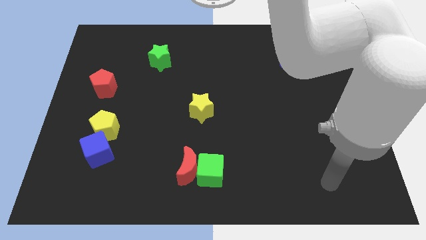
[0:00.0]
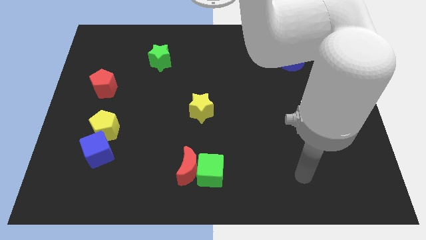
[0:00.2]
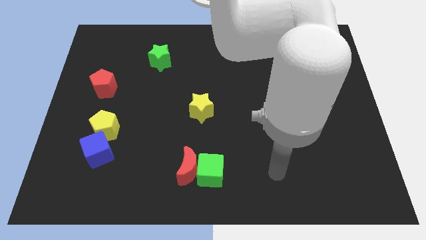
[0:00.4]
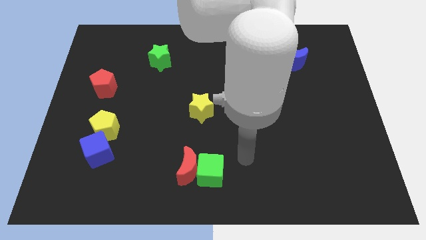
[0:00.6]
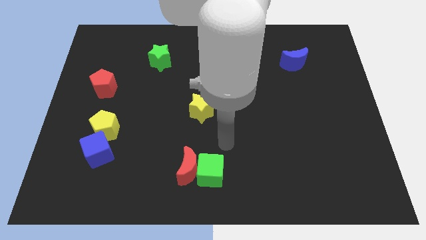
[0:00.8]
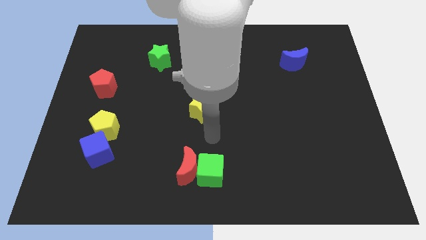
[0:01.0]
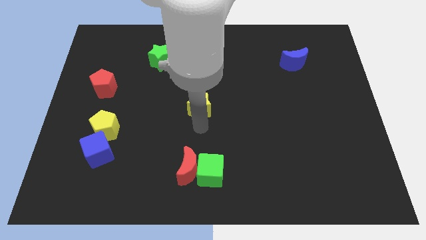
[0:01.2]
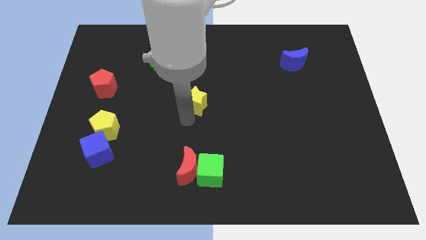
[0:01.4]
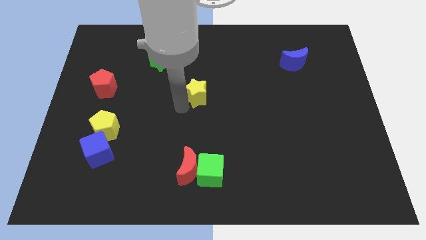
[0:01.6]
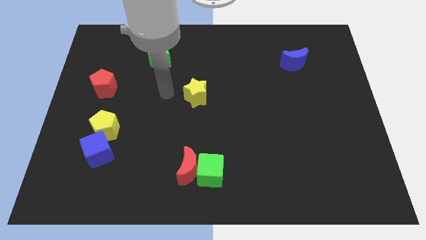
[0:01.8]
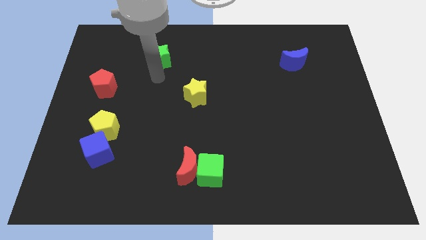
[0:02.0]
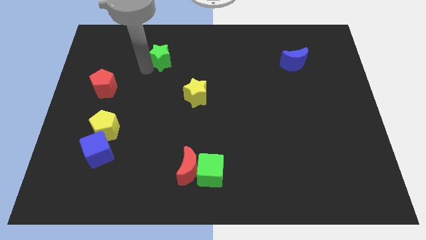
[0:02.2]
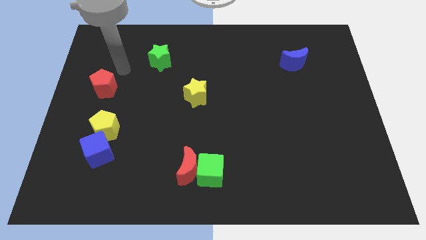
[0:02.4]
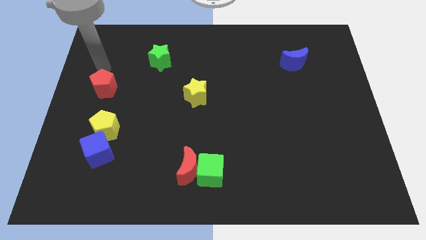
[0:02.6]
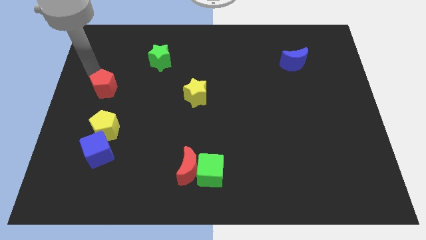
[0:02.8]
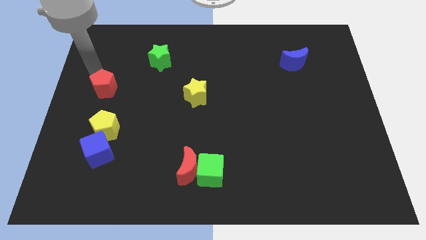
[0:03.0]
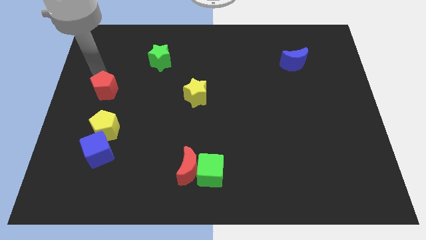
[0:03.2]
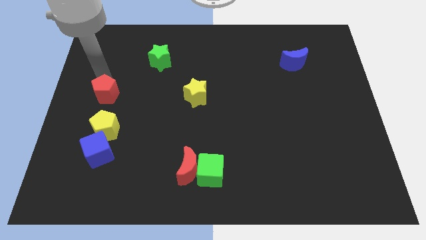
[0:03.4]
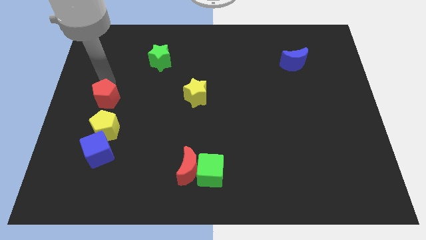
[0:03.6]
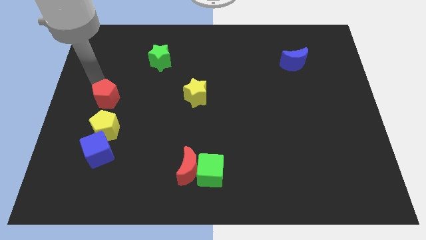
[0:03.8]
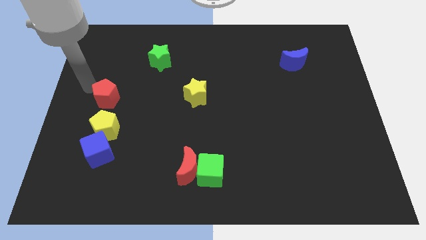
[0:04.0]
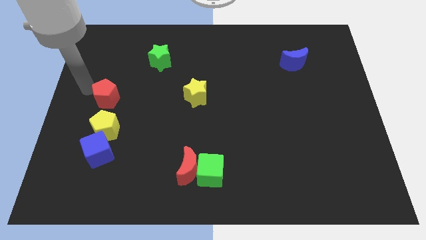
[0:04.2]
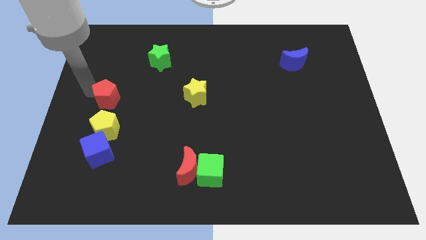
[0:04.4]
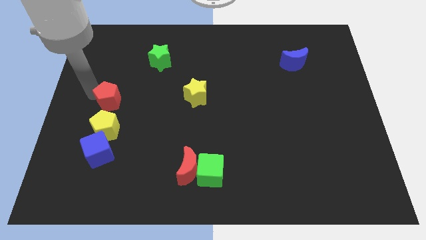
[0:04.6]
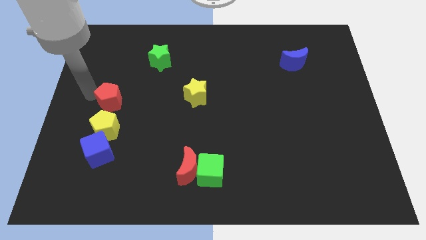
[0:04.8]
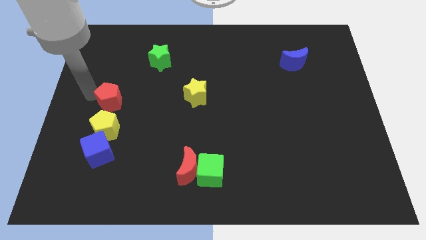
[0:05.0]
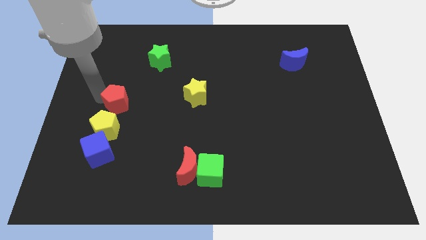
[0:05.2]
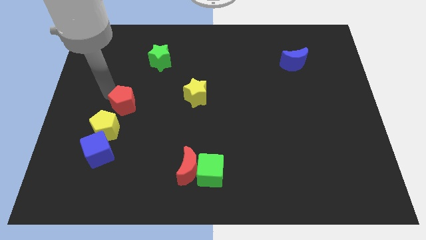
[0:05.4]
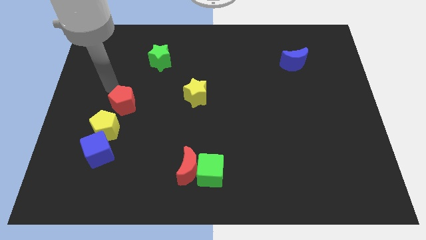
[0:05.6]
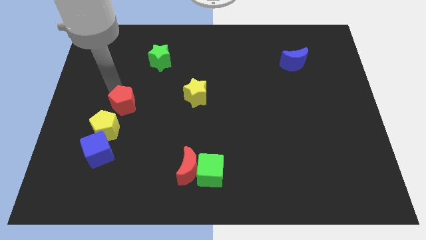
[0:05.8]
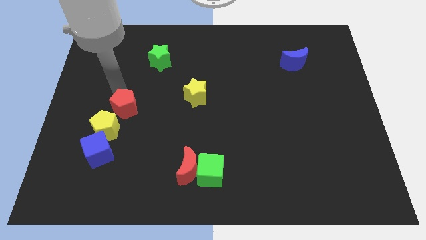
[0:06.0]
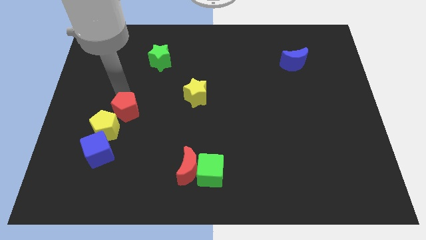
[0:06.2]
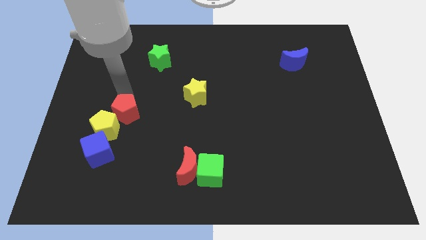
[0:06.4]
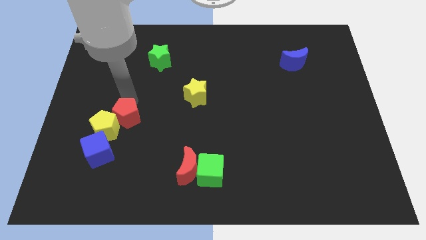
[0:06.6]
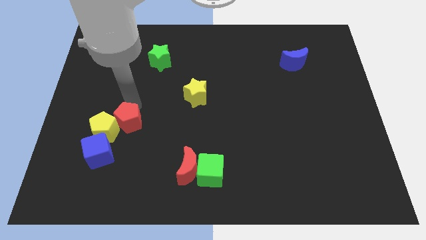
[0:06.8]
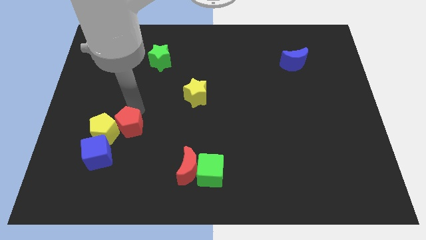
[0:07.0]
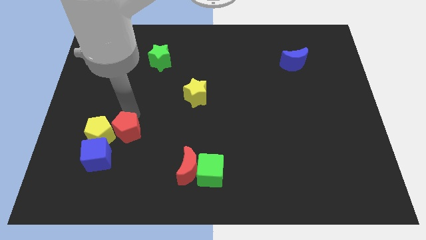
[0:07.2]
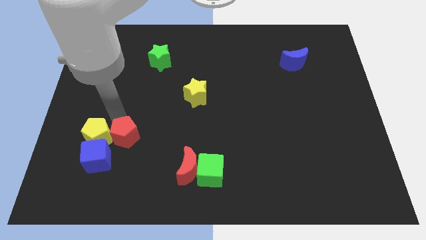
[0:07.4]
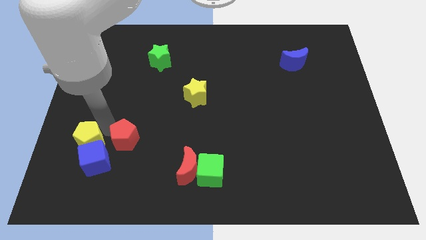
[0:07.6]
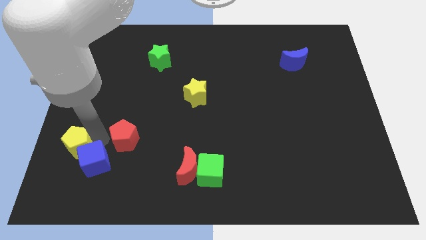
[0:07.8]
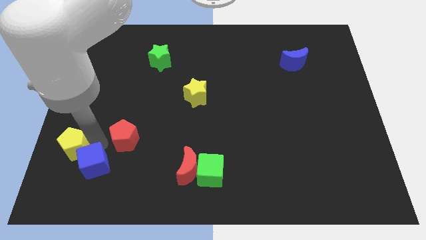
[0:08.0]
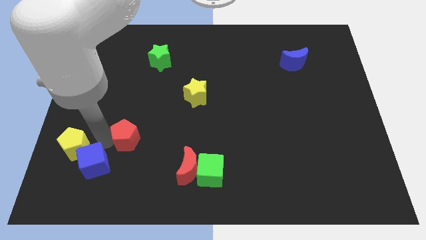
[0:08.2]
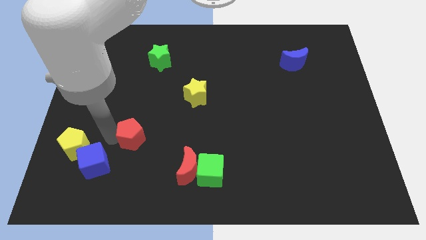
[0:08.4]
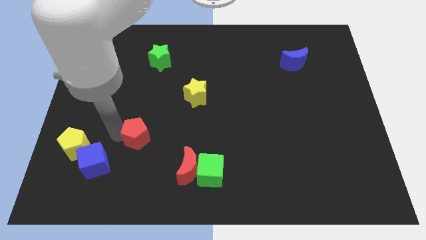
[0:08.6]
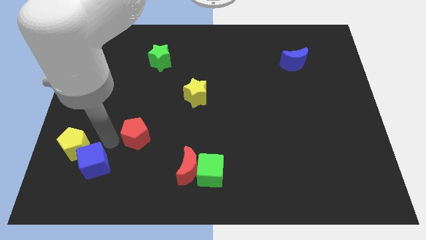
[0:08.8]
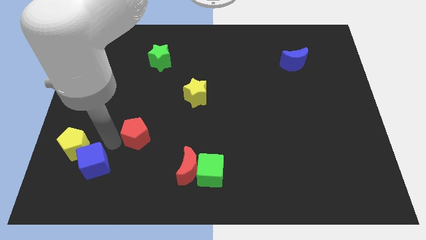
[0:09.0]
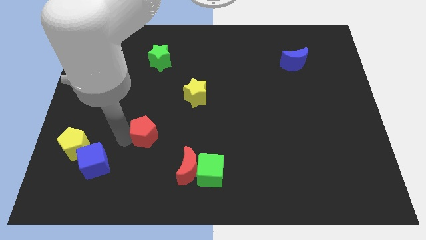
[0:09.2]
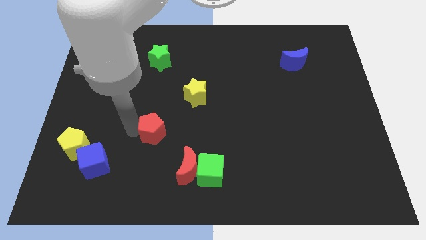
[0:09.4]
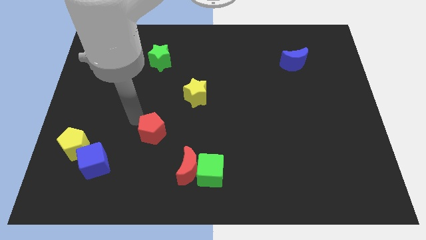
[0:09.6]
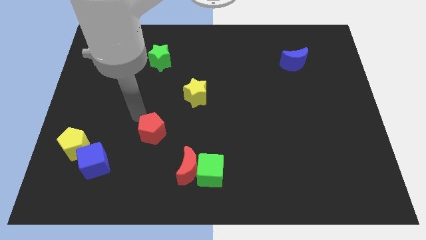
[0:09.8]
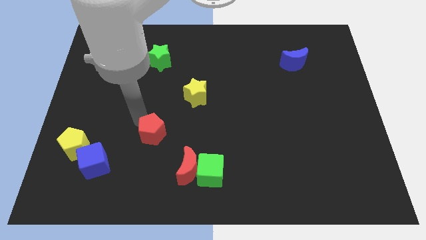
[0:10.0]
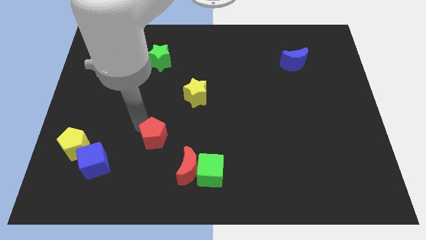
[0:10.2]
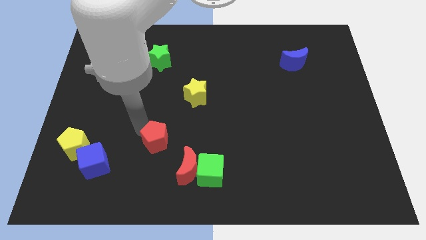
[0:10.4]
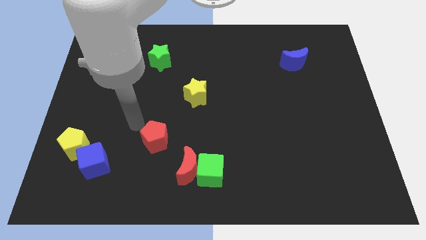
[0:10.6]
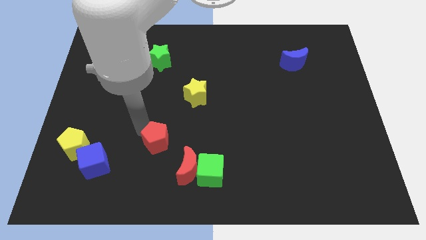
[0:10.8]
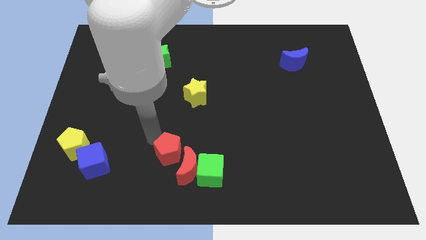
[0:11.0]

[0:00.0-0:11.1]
move the red pentagon close to the red moon

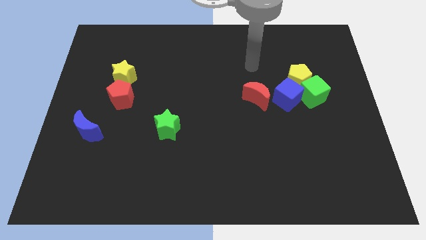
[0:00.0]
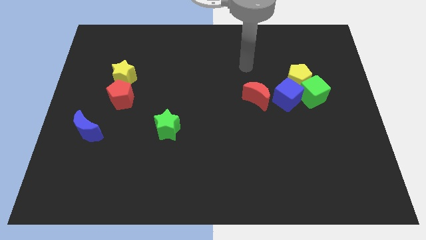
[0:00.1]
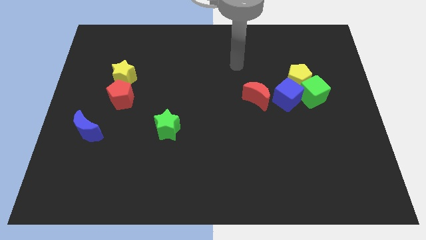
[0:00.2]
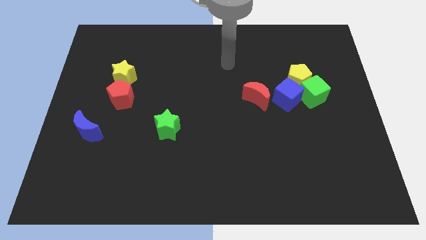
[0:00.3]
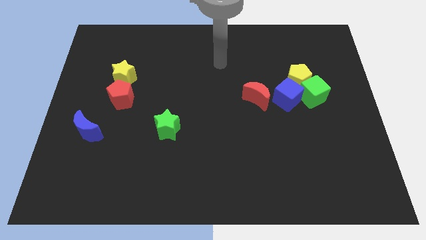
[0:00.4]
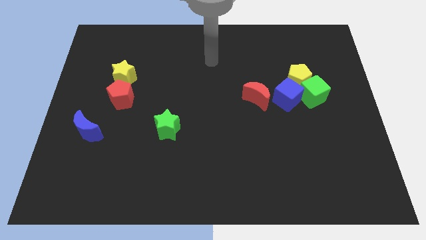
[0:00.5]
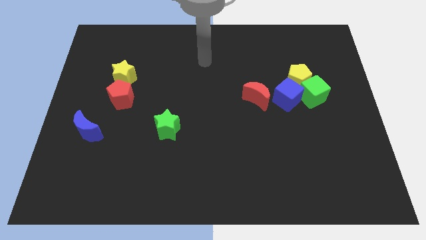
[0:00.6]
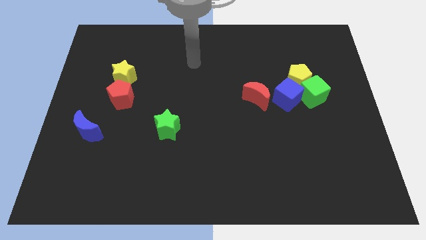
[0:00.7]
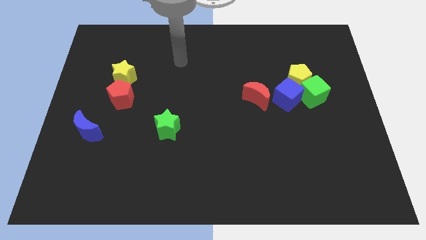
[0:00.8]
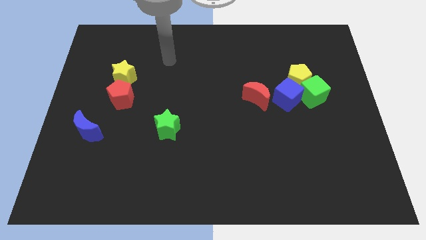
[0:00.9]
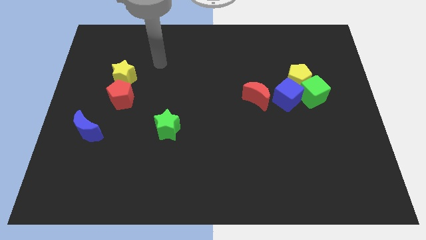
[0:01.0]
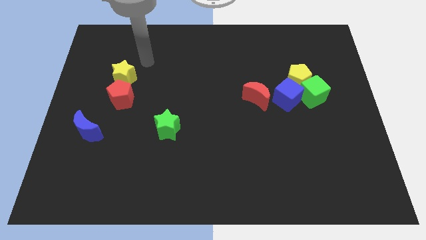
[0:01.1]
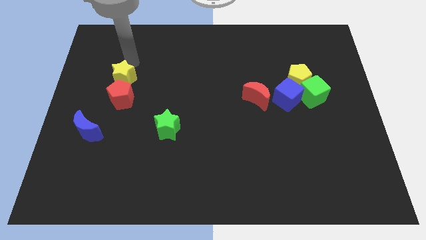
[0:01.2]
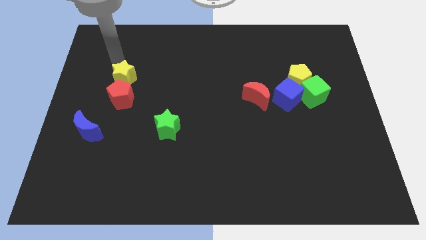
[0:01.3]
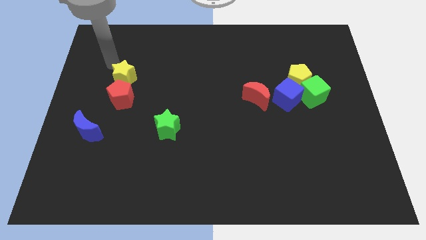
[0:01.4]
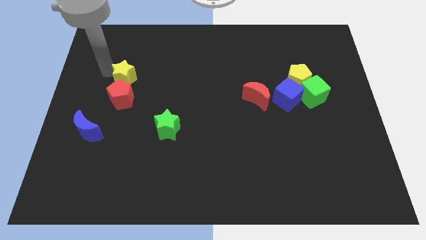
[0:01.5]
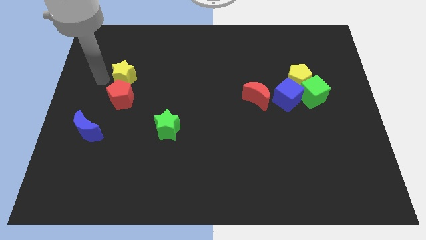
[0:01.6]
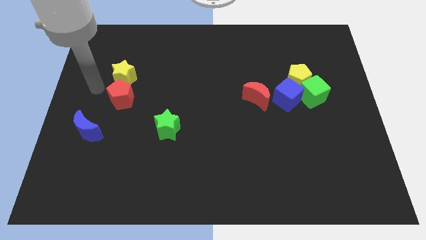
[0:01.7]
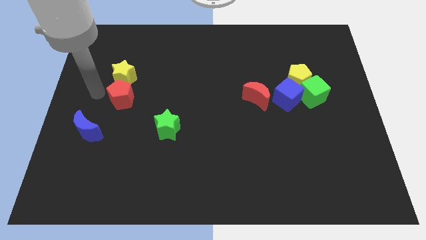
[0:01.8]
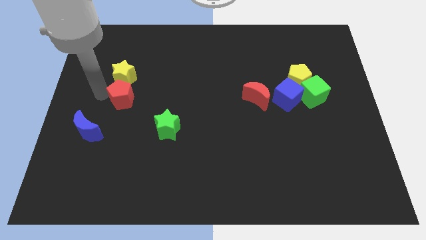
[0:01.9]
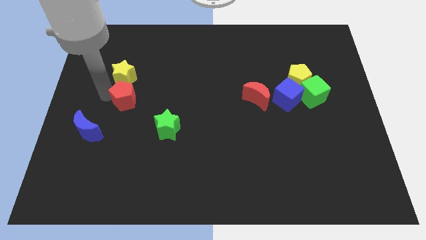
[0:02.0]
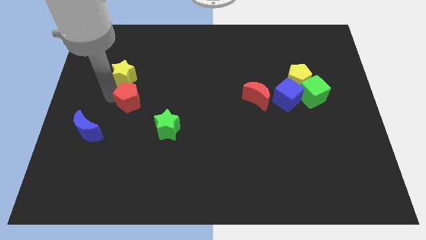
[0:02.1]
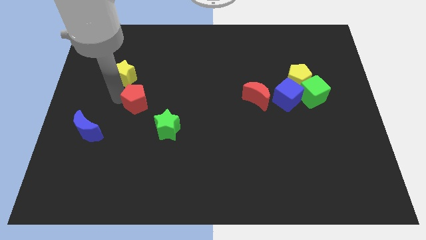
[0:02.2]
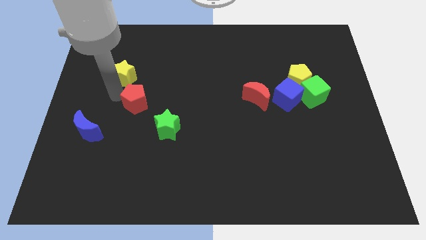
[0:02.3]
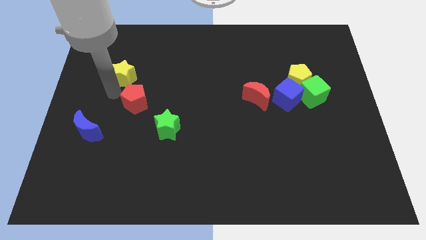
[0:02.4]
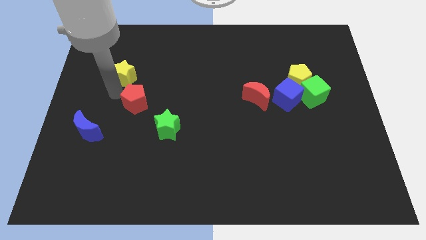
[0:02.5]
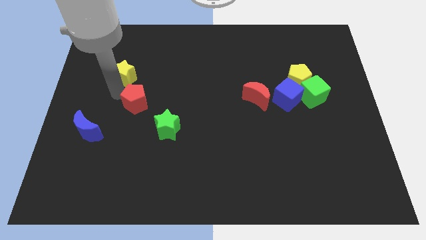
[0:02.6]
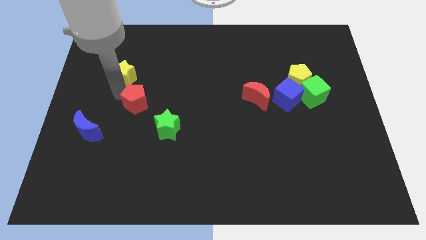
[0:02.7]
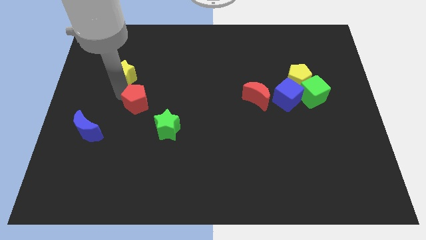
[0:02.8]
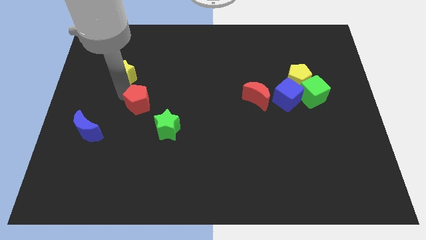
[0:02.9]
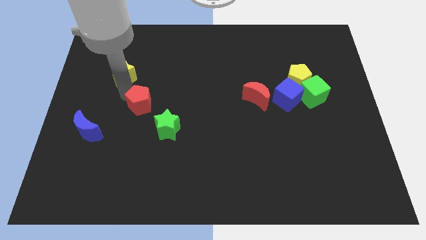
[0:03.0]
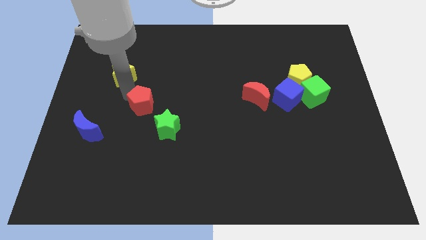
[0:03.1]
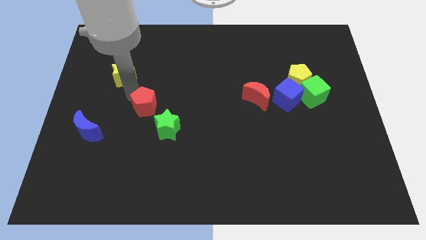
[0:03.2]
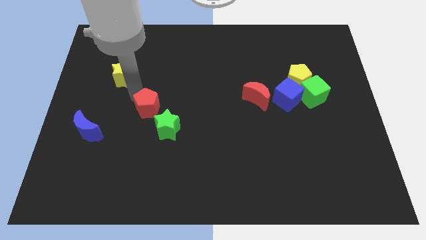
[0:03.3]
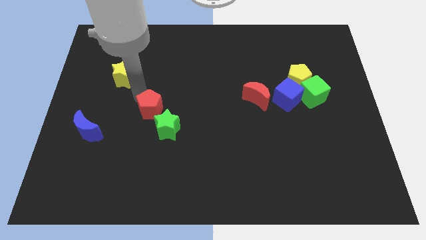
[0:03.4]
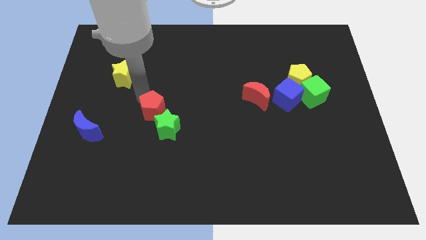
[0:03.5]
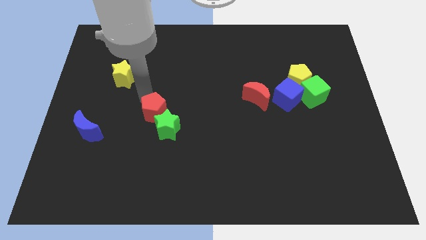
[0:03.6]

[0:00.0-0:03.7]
push the red pentagon towards the green star
